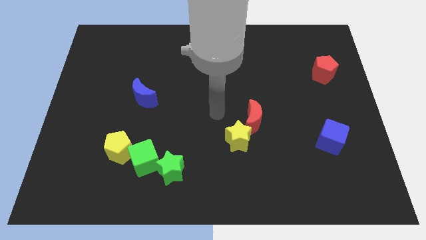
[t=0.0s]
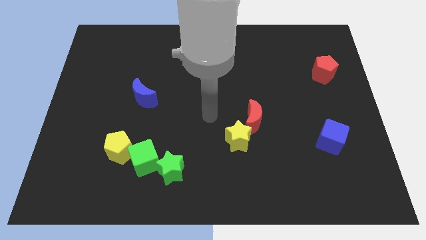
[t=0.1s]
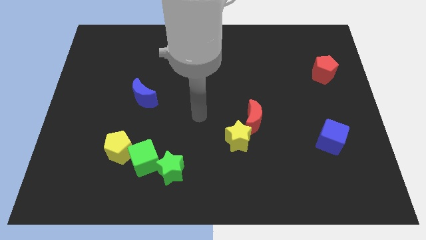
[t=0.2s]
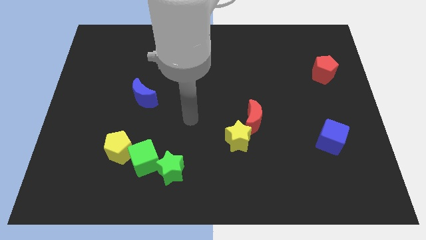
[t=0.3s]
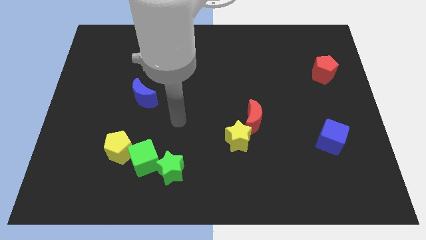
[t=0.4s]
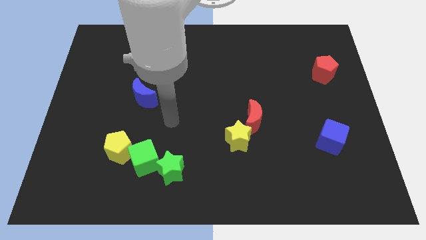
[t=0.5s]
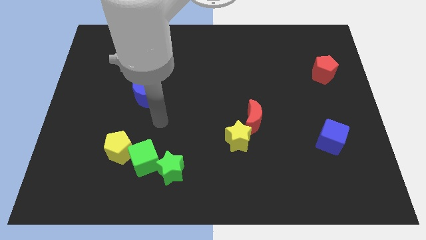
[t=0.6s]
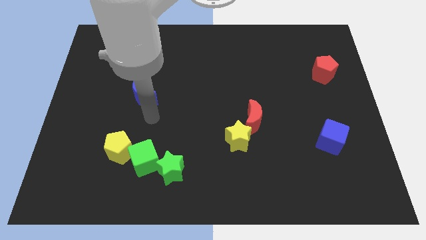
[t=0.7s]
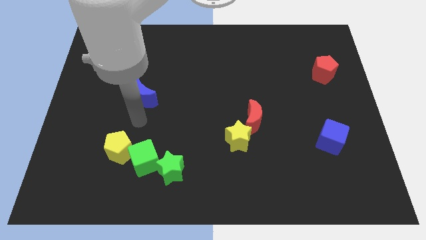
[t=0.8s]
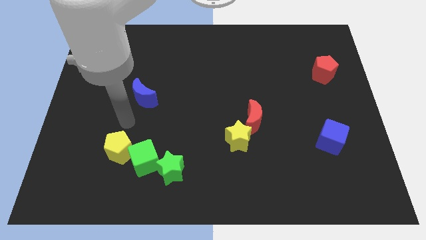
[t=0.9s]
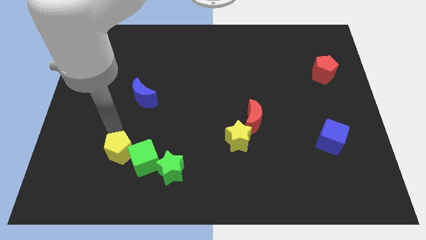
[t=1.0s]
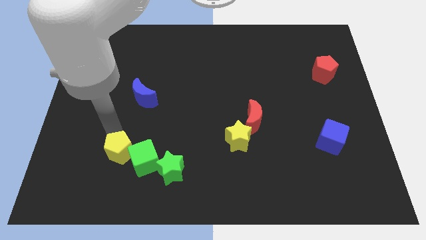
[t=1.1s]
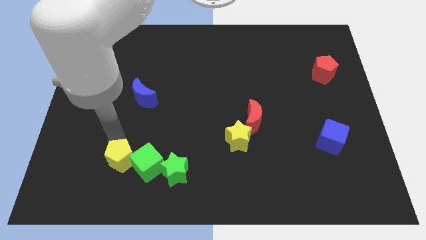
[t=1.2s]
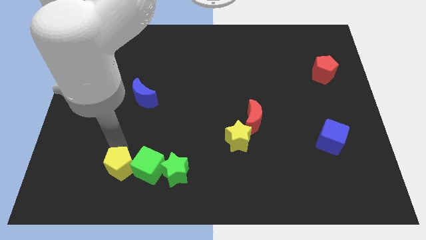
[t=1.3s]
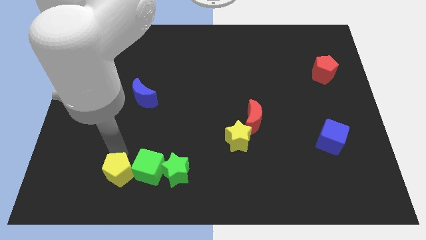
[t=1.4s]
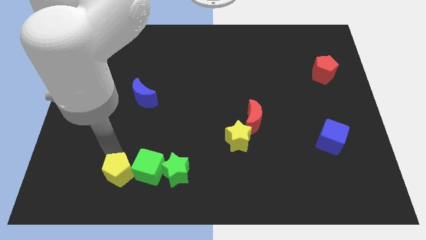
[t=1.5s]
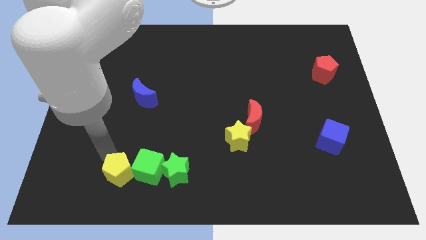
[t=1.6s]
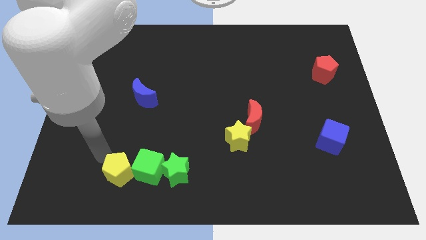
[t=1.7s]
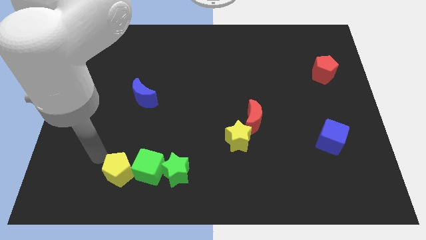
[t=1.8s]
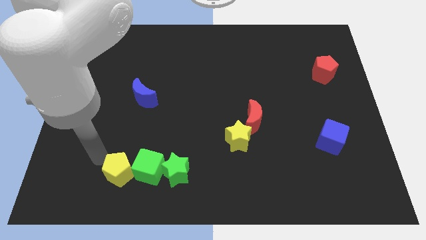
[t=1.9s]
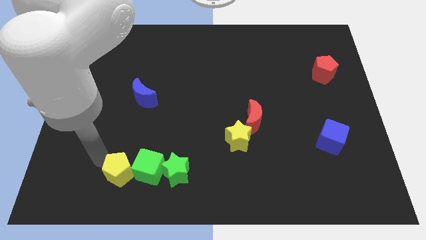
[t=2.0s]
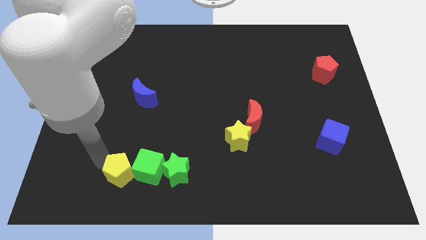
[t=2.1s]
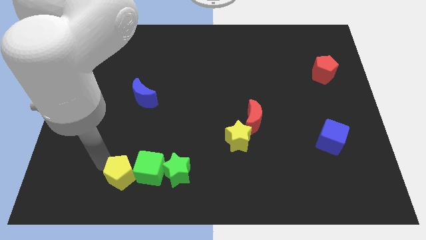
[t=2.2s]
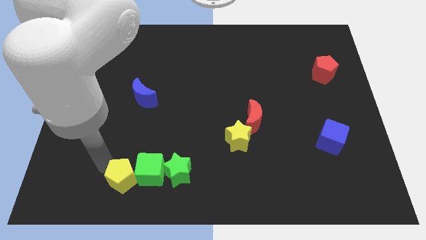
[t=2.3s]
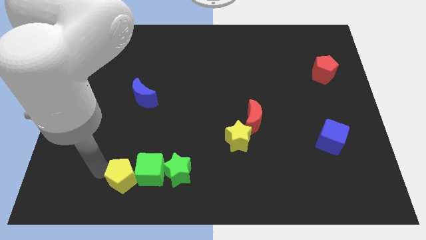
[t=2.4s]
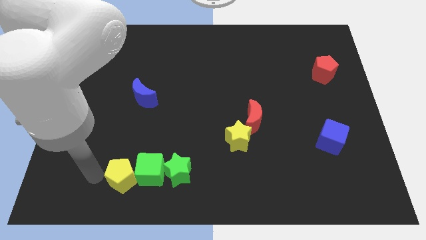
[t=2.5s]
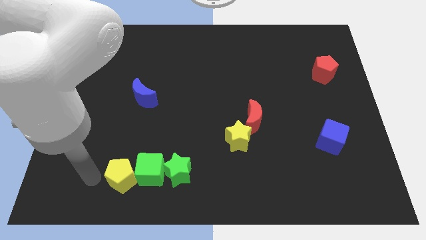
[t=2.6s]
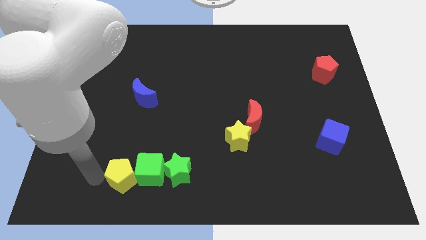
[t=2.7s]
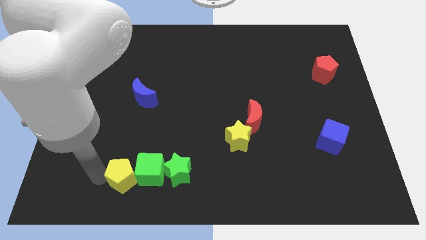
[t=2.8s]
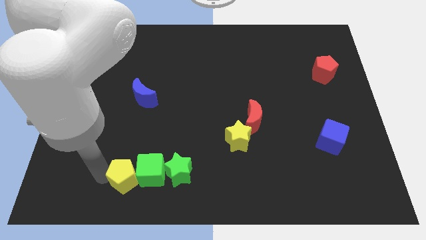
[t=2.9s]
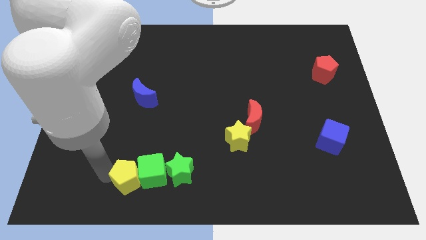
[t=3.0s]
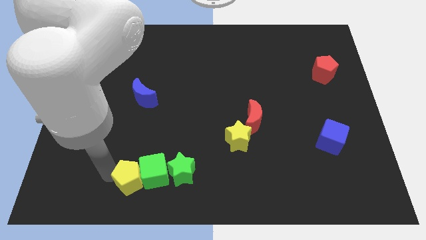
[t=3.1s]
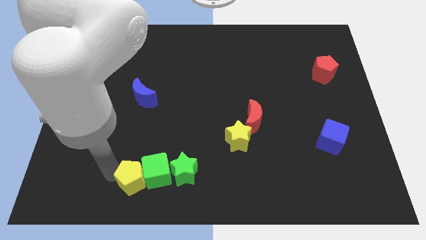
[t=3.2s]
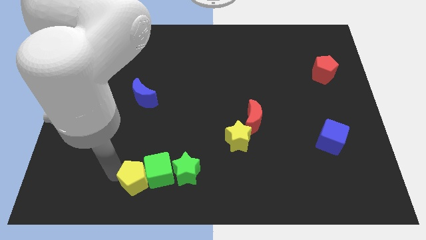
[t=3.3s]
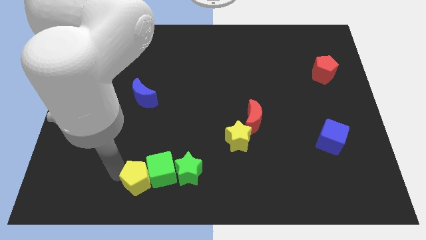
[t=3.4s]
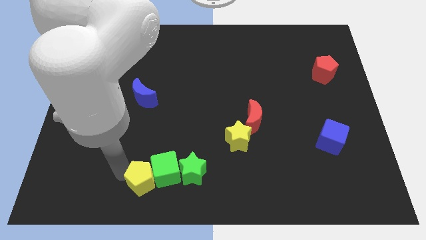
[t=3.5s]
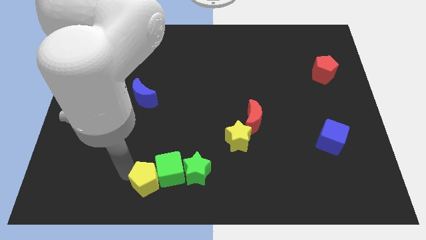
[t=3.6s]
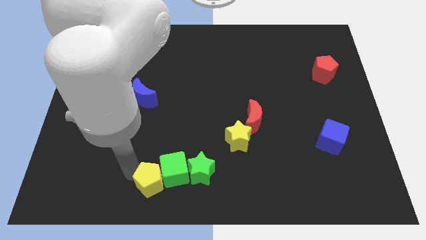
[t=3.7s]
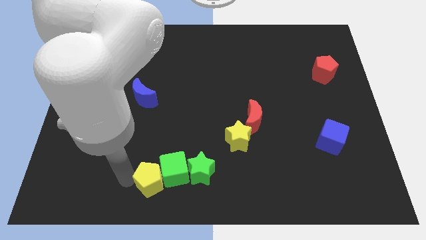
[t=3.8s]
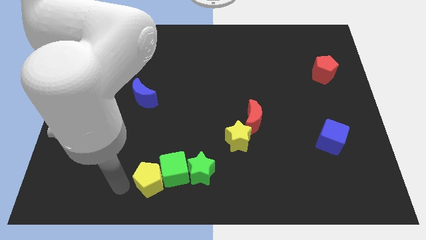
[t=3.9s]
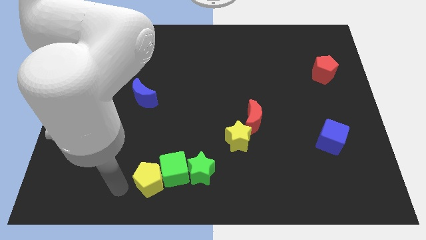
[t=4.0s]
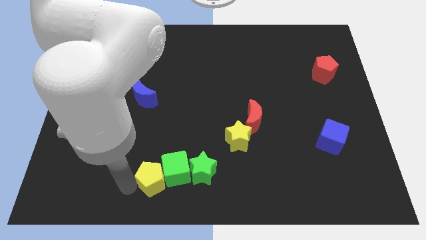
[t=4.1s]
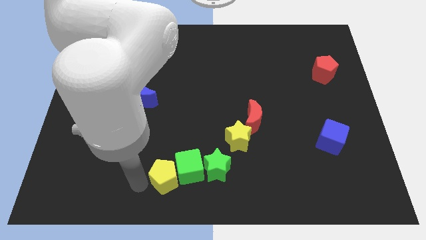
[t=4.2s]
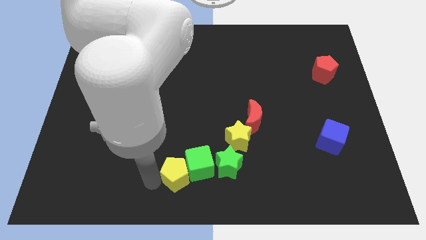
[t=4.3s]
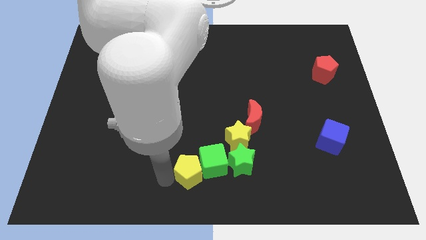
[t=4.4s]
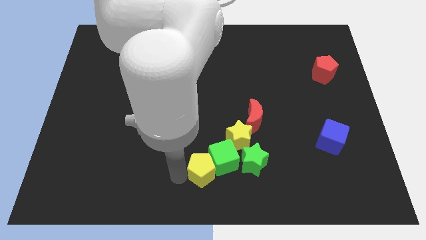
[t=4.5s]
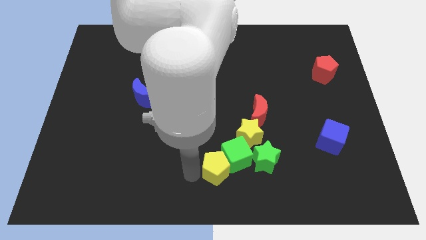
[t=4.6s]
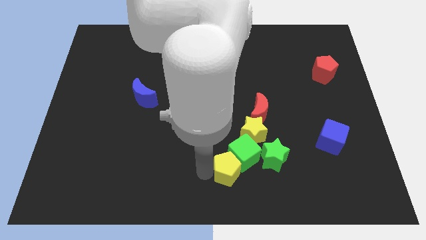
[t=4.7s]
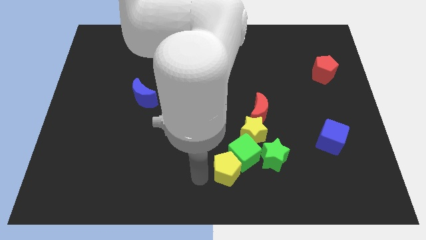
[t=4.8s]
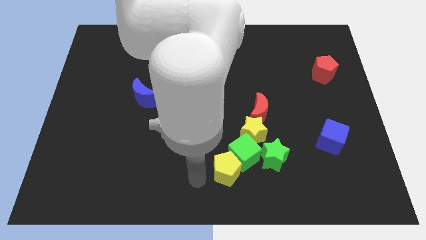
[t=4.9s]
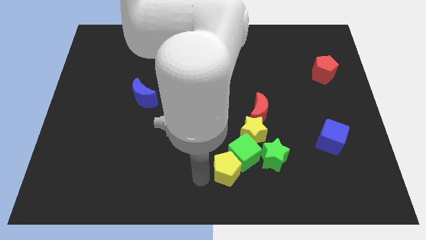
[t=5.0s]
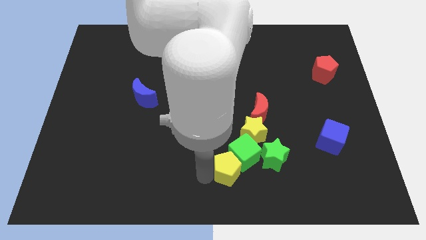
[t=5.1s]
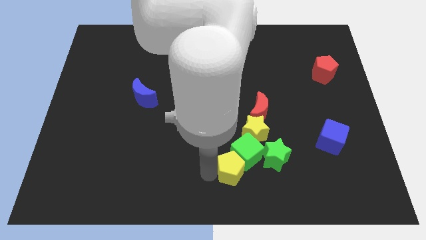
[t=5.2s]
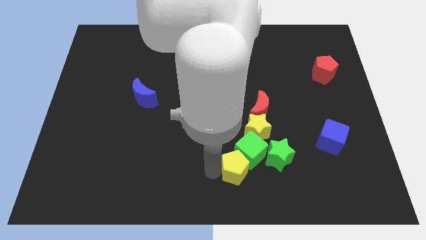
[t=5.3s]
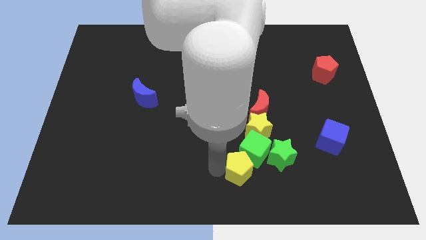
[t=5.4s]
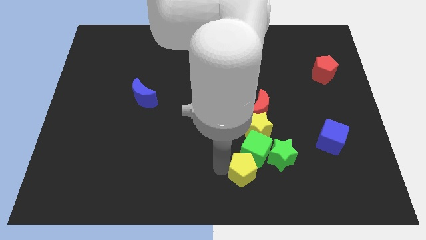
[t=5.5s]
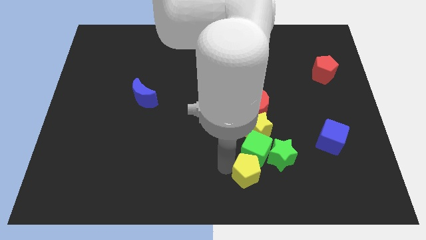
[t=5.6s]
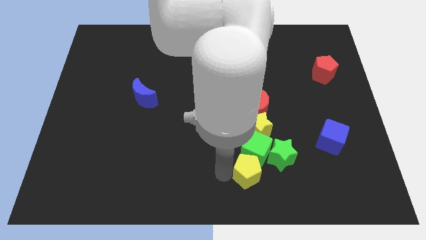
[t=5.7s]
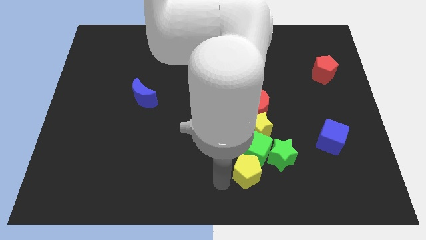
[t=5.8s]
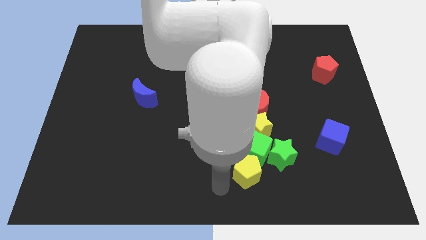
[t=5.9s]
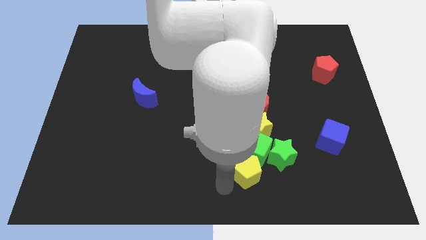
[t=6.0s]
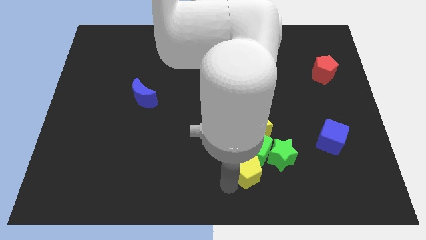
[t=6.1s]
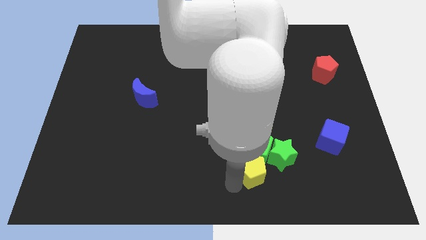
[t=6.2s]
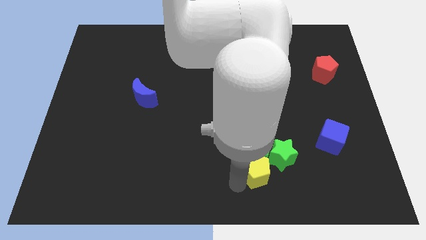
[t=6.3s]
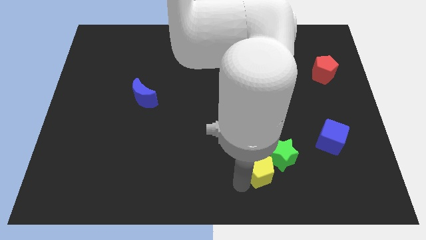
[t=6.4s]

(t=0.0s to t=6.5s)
put the yellow pentagon to the green star

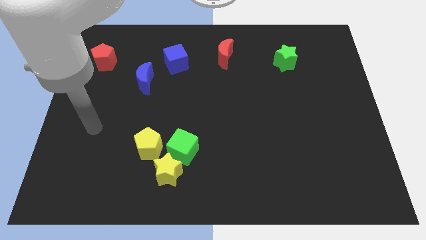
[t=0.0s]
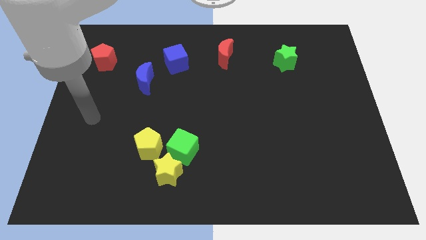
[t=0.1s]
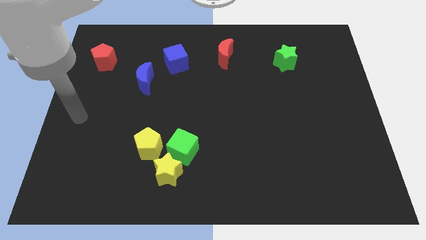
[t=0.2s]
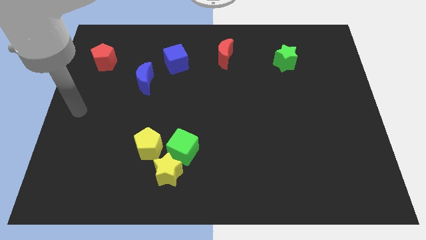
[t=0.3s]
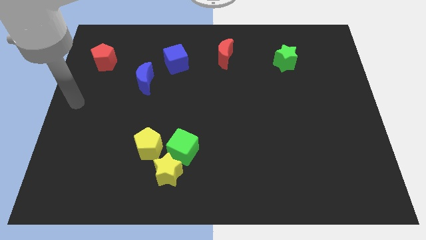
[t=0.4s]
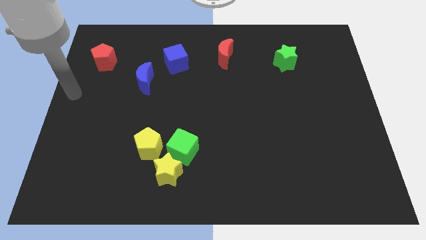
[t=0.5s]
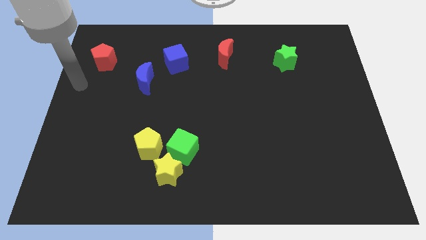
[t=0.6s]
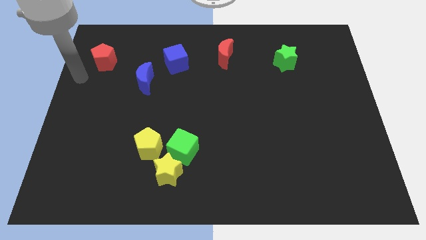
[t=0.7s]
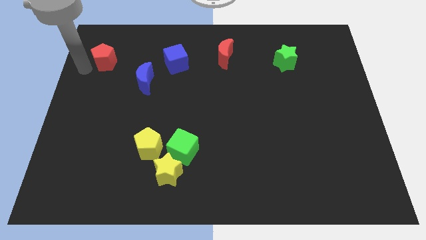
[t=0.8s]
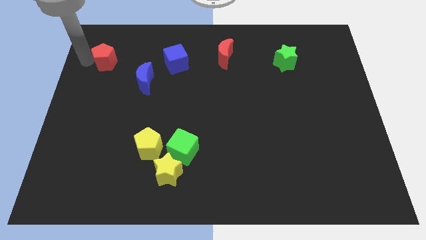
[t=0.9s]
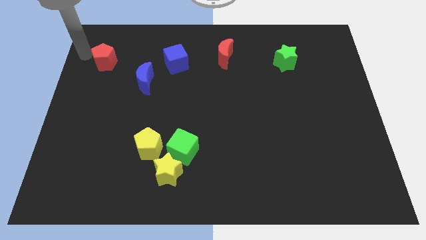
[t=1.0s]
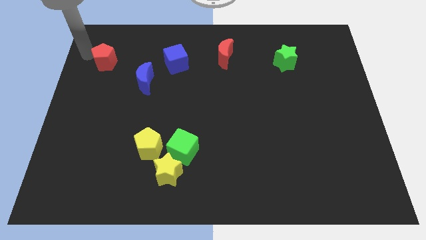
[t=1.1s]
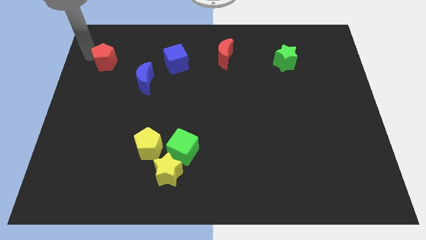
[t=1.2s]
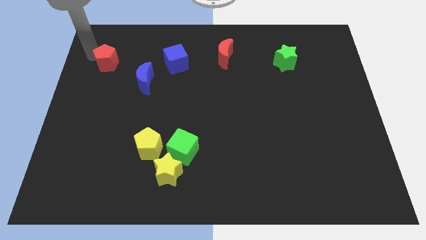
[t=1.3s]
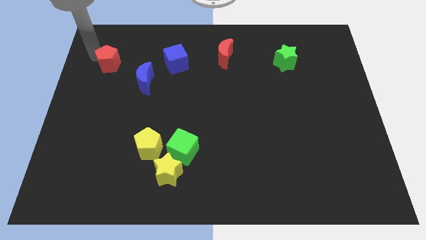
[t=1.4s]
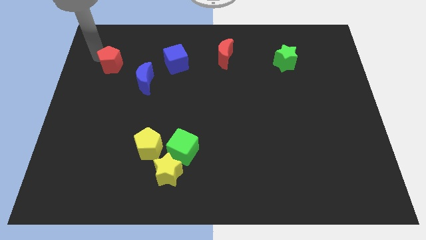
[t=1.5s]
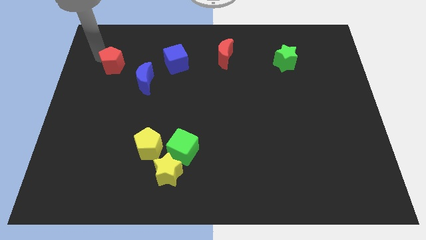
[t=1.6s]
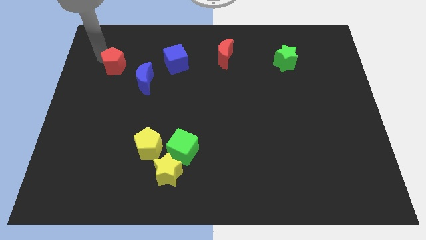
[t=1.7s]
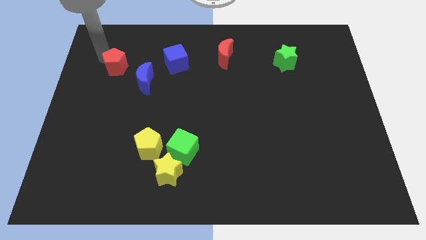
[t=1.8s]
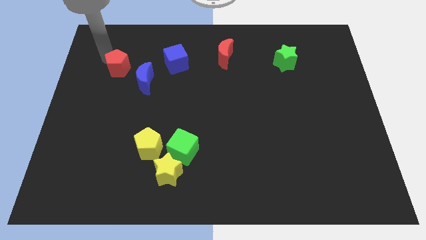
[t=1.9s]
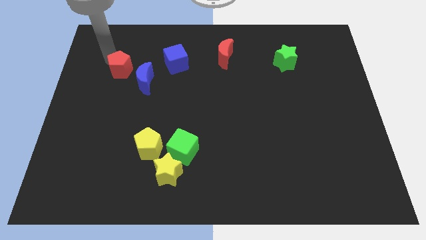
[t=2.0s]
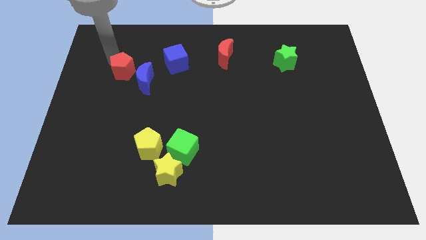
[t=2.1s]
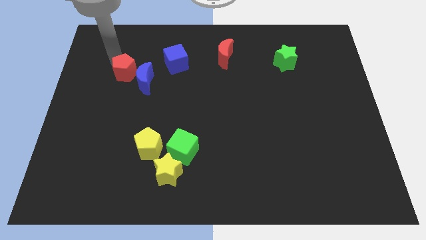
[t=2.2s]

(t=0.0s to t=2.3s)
move the red pentagon close to the blue moon
